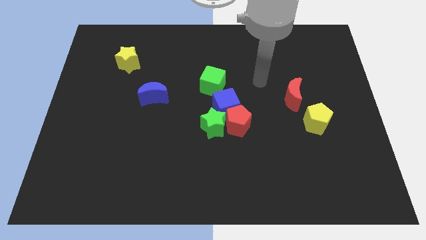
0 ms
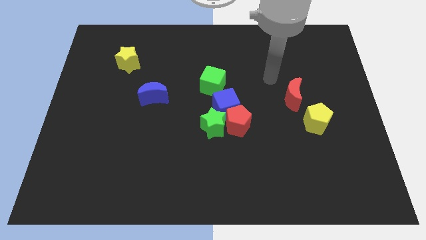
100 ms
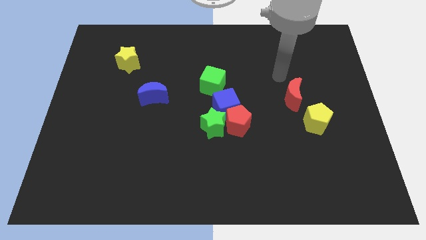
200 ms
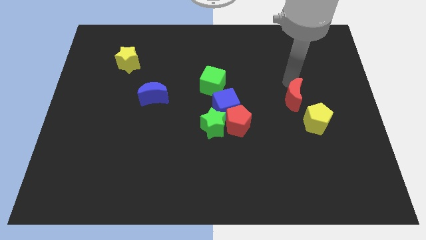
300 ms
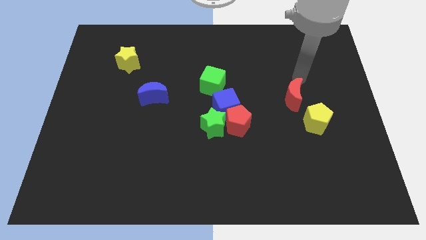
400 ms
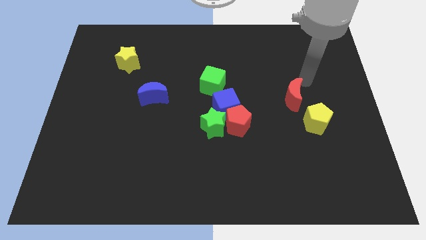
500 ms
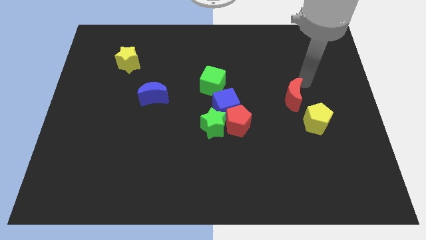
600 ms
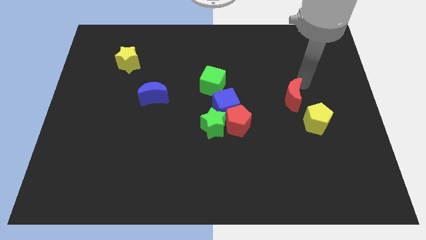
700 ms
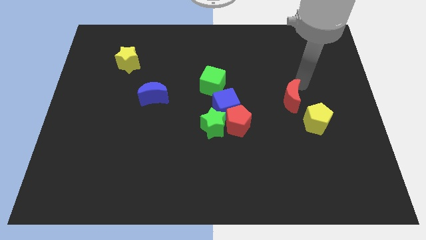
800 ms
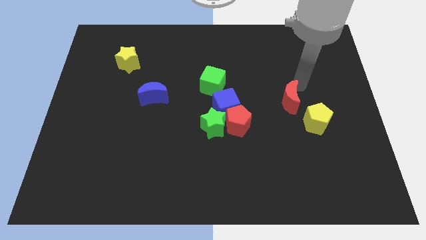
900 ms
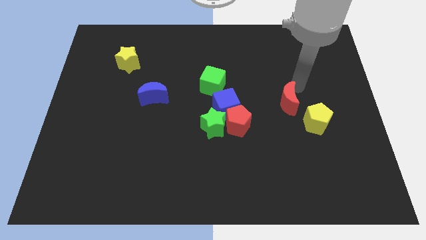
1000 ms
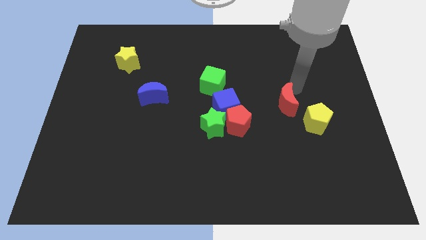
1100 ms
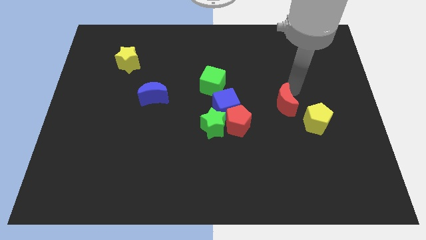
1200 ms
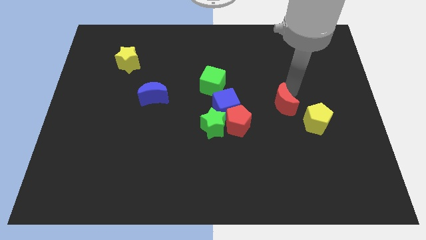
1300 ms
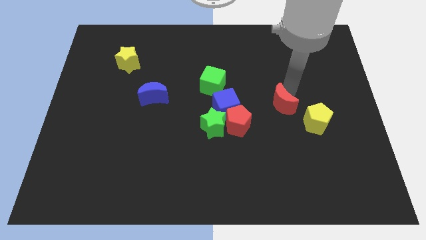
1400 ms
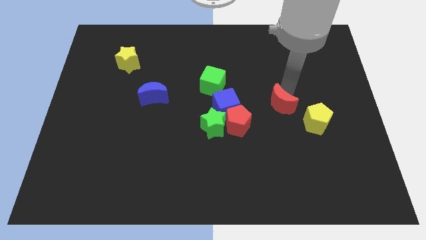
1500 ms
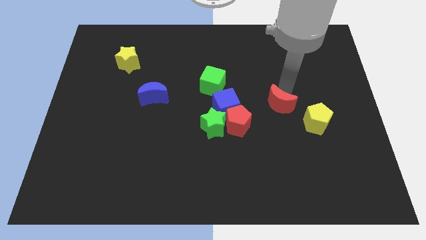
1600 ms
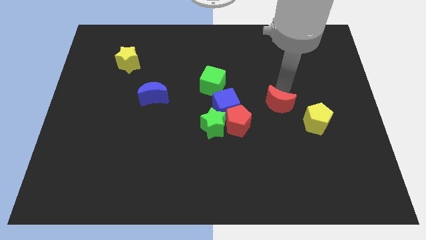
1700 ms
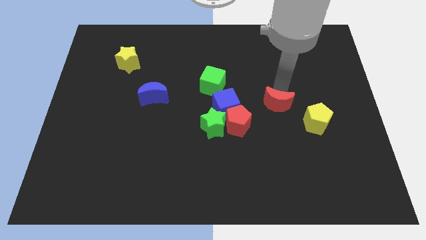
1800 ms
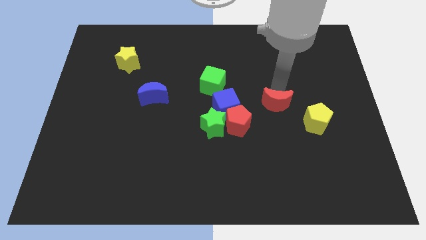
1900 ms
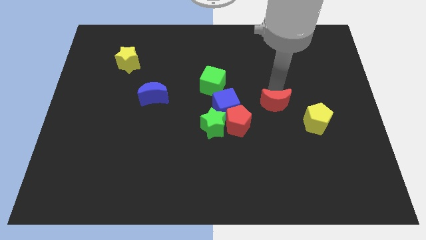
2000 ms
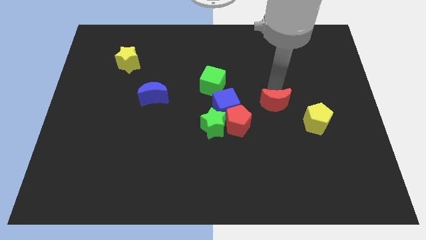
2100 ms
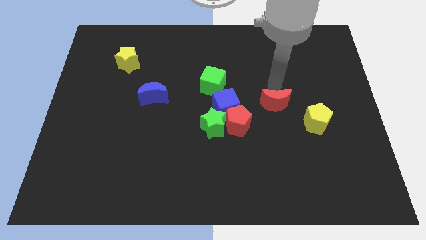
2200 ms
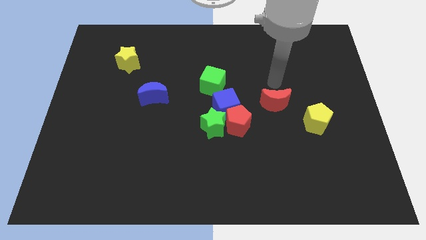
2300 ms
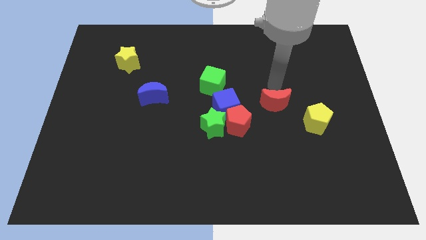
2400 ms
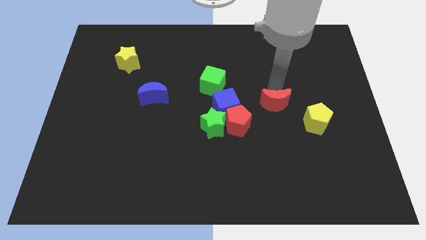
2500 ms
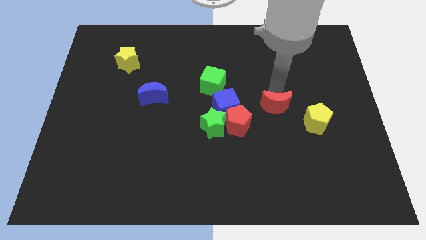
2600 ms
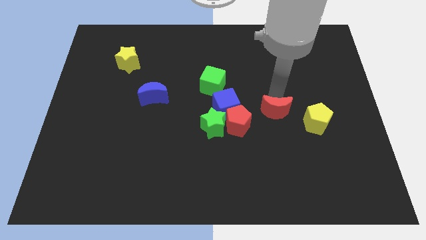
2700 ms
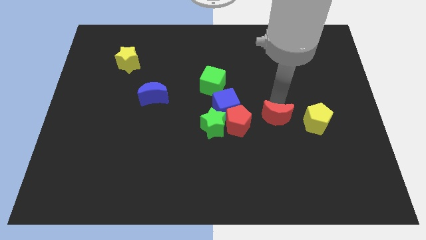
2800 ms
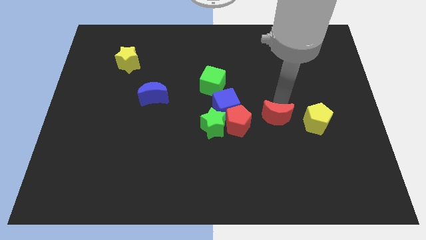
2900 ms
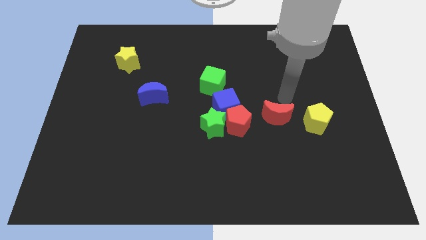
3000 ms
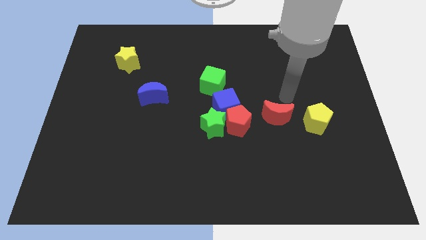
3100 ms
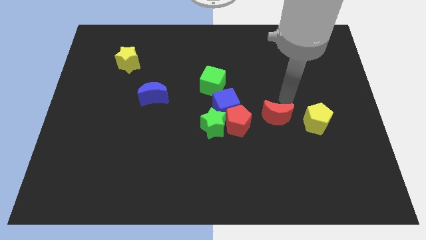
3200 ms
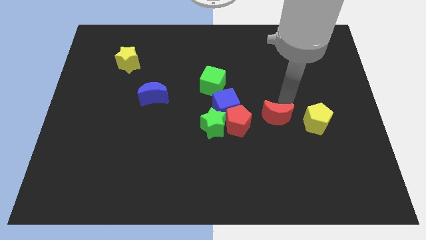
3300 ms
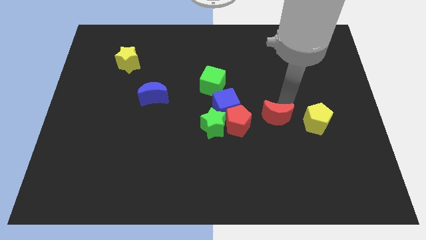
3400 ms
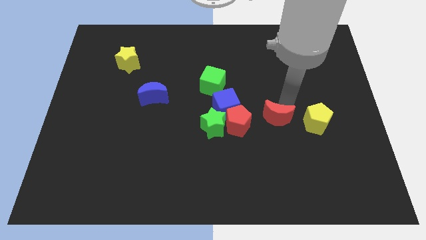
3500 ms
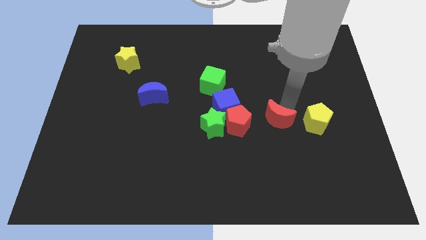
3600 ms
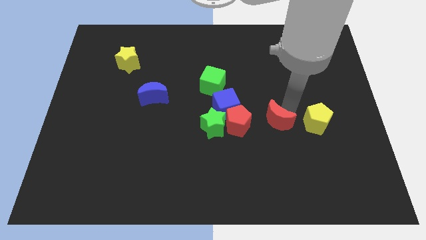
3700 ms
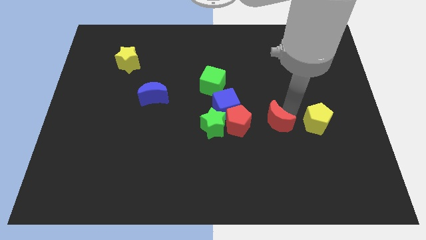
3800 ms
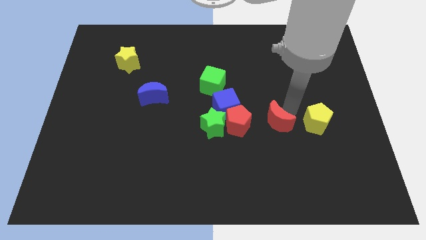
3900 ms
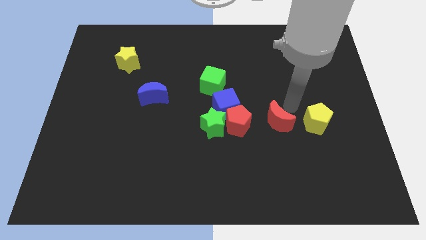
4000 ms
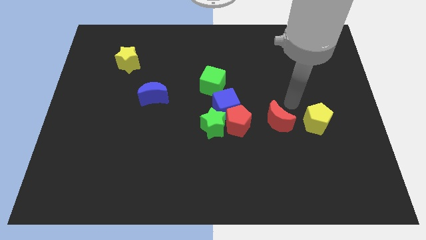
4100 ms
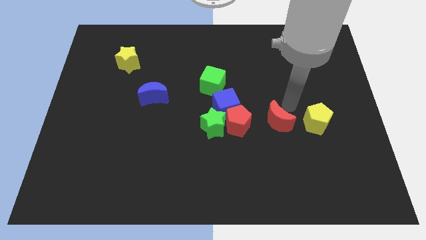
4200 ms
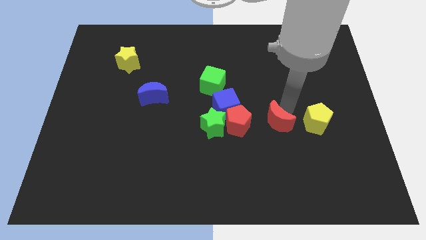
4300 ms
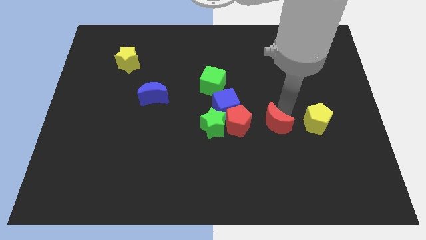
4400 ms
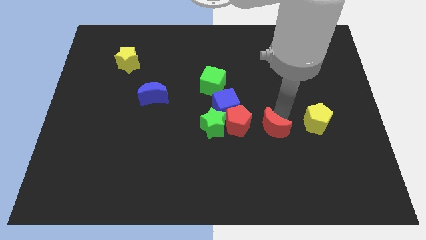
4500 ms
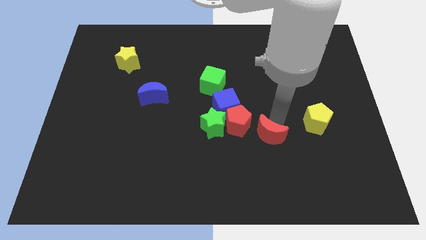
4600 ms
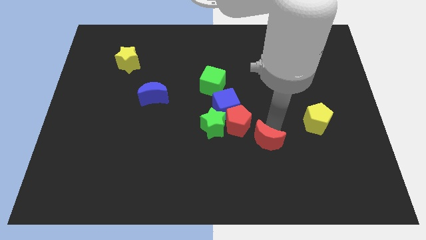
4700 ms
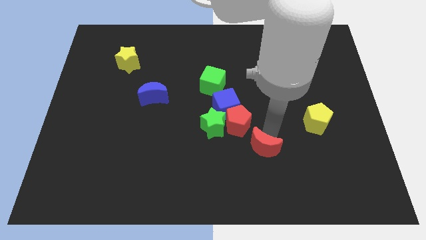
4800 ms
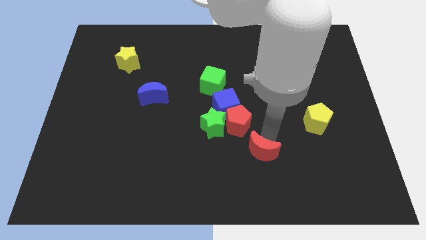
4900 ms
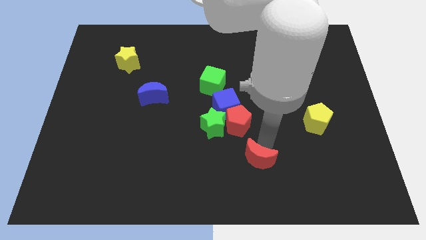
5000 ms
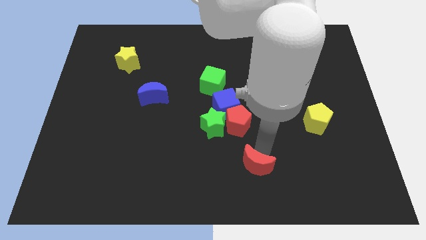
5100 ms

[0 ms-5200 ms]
slide the red moon to the bottom
